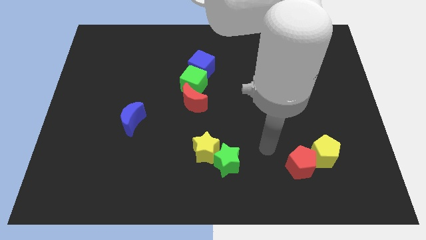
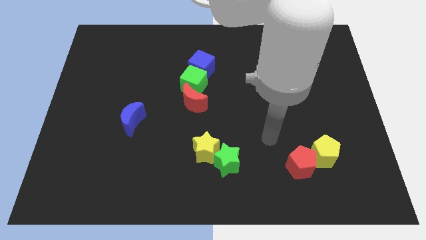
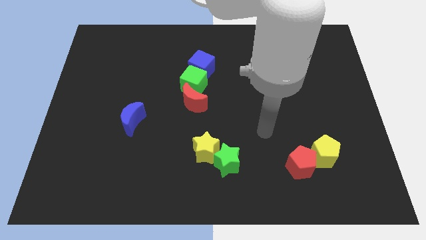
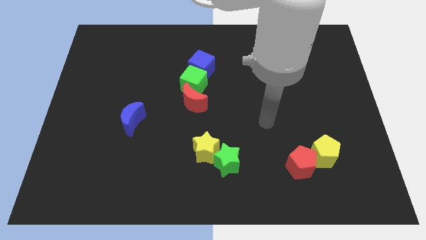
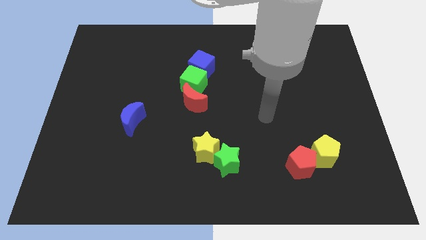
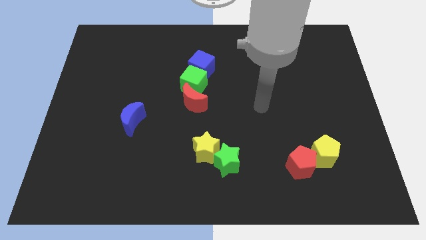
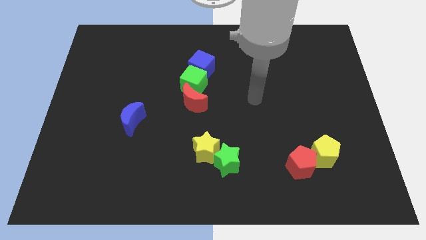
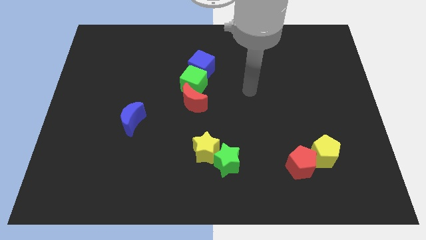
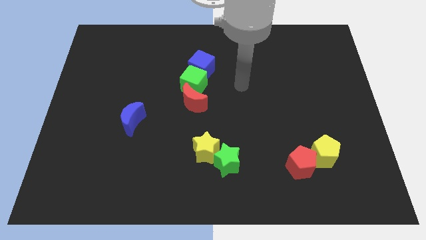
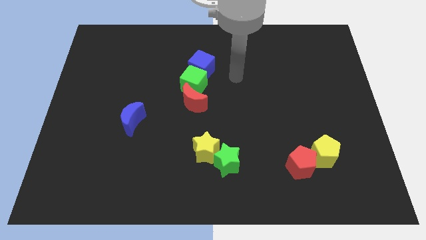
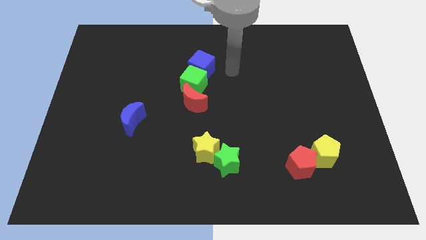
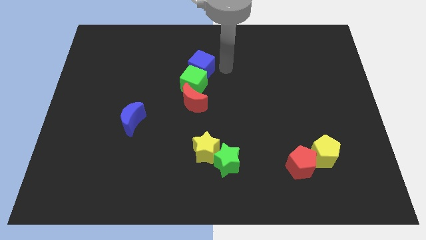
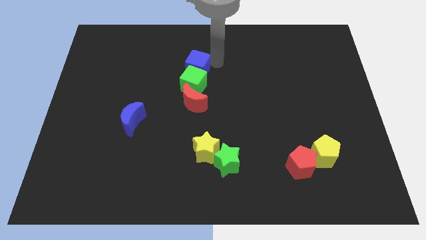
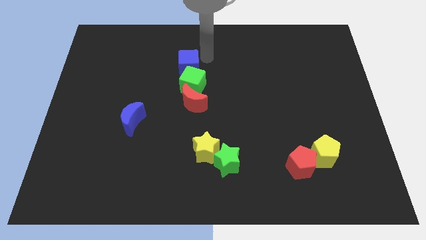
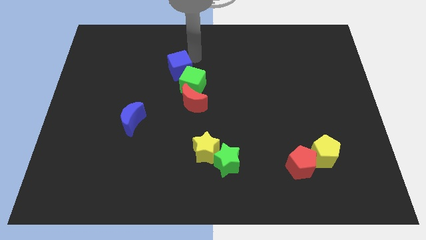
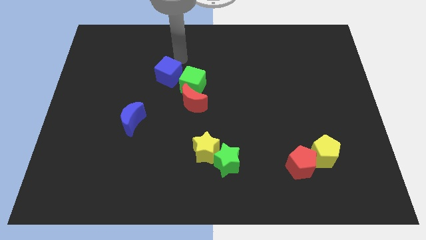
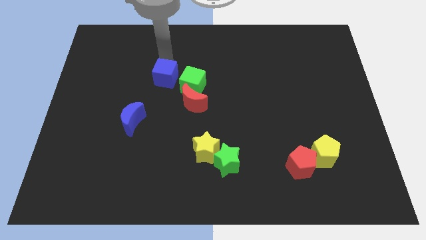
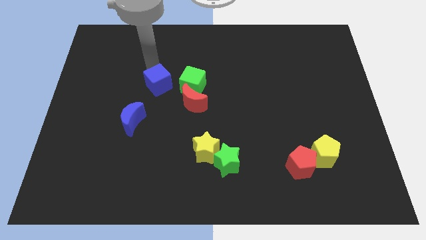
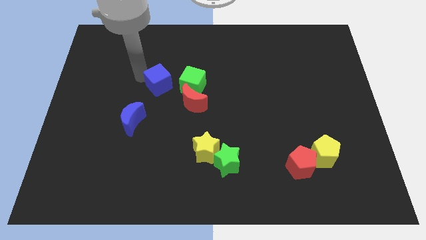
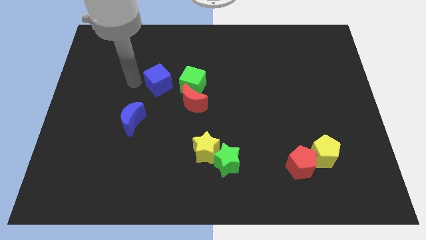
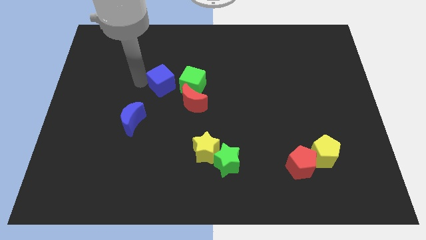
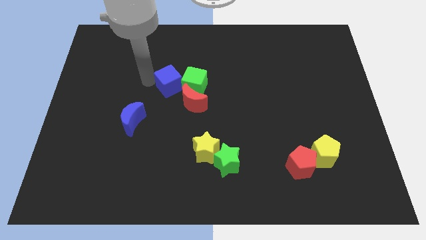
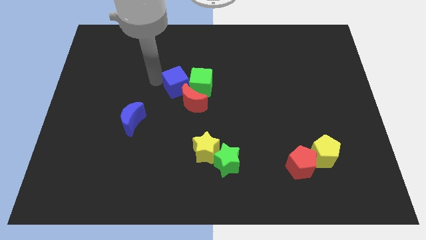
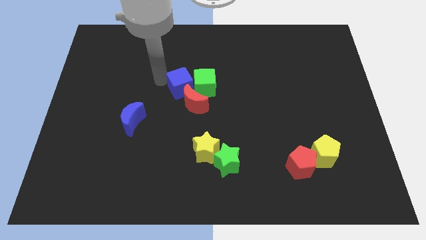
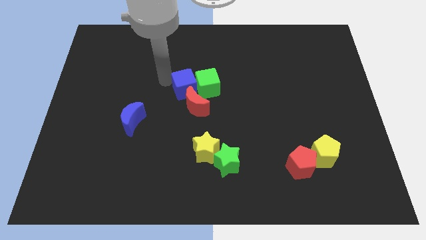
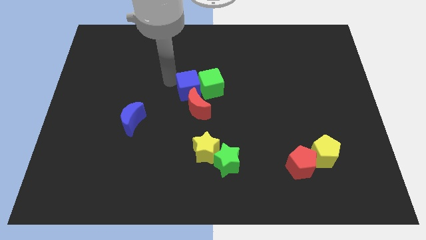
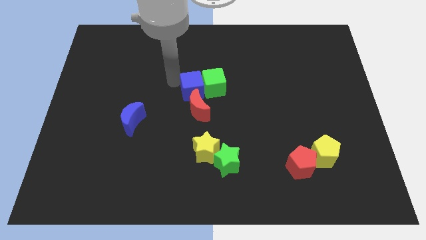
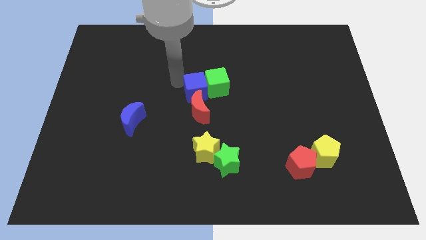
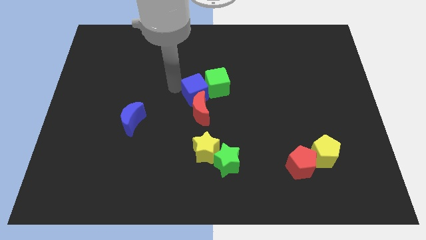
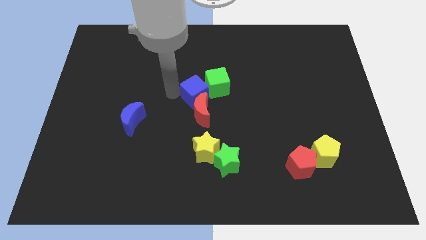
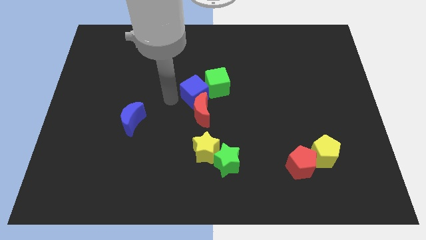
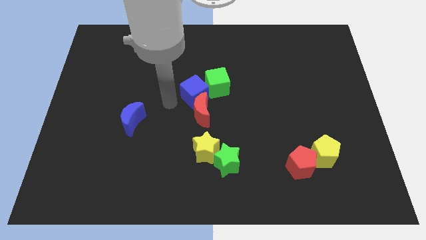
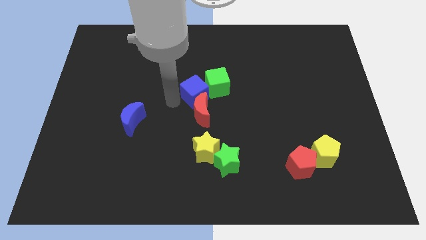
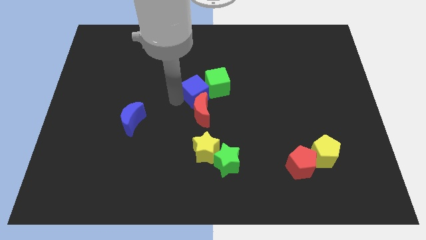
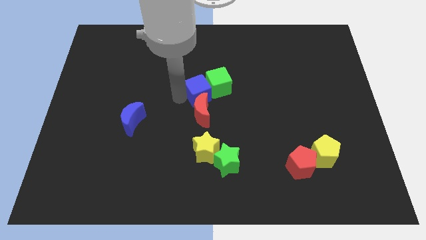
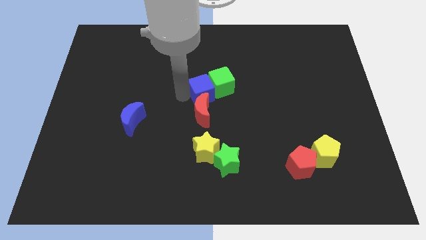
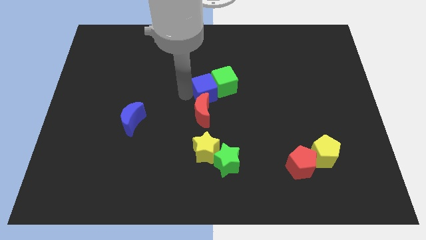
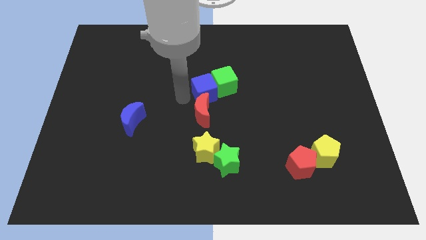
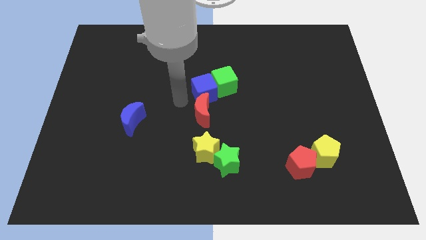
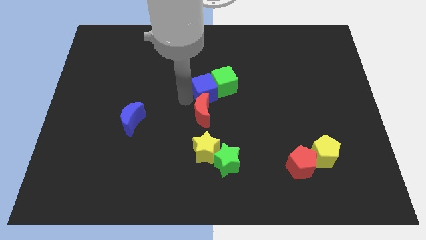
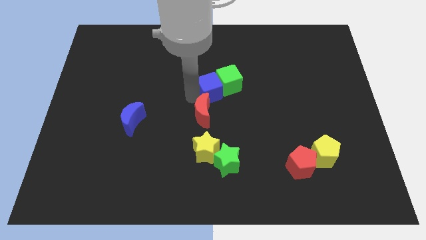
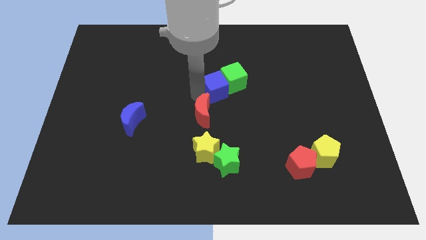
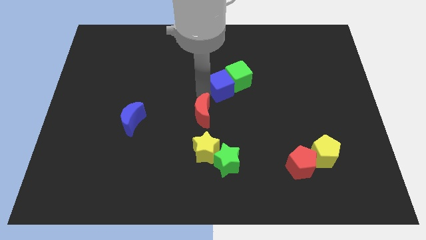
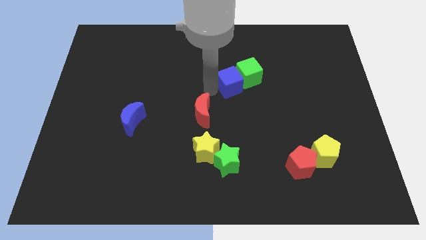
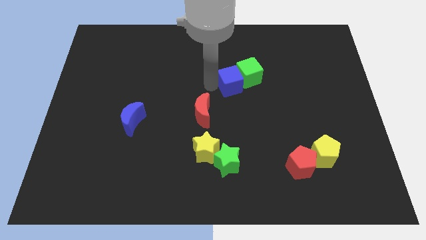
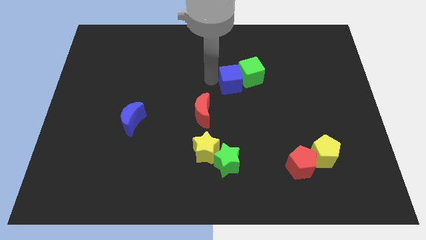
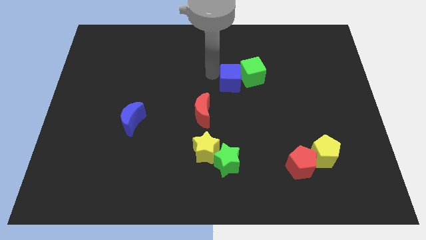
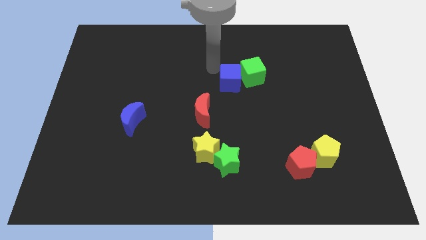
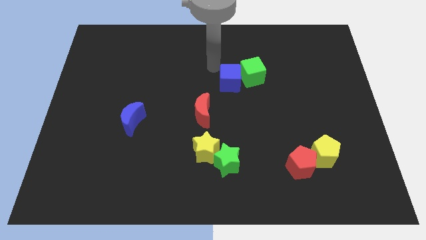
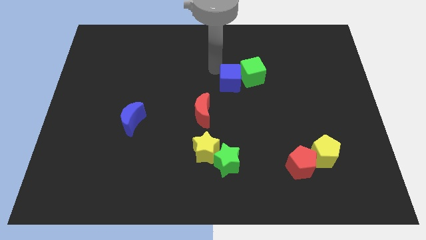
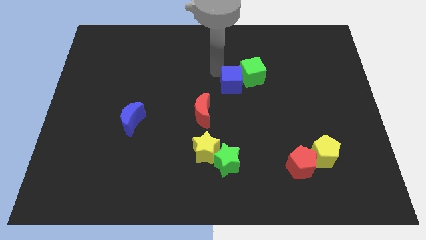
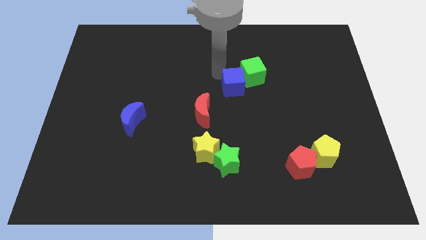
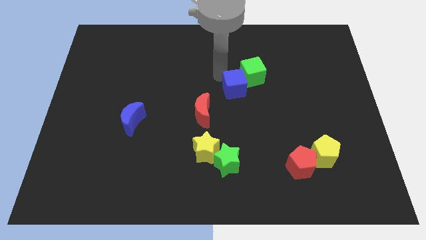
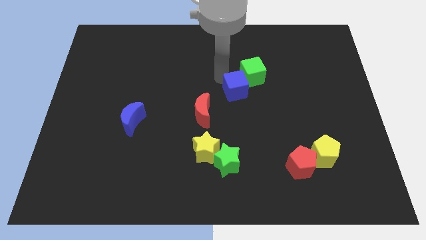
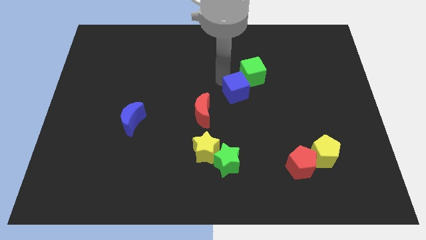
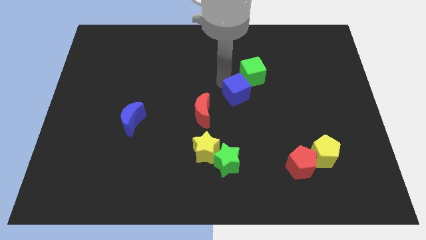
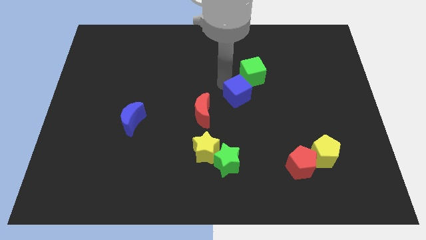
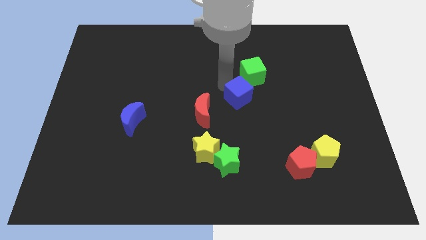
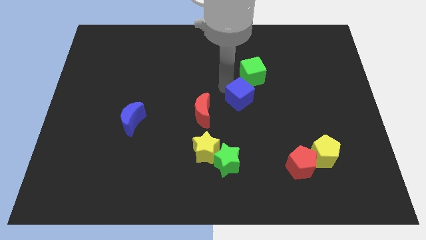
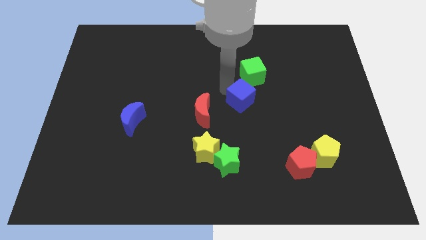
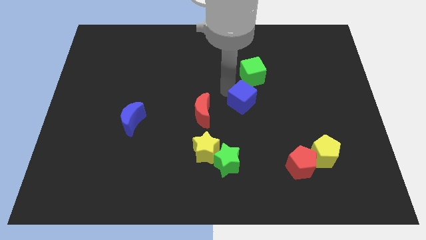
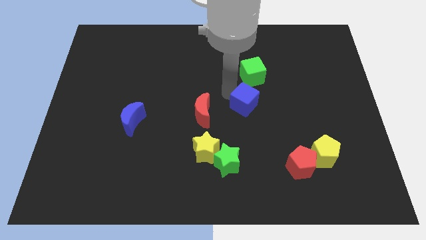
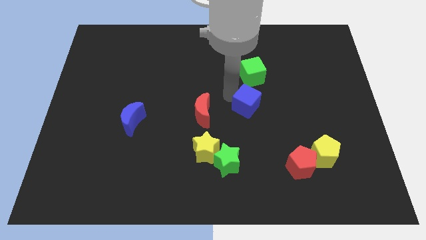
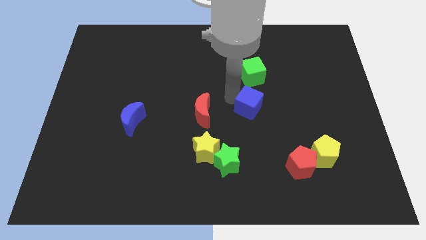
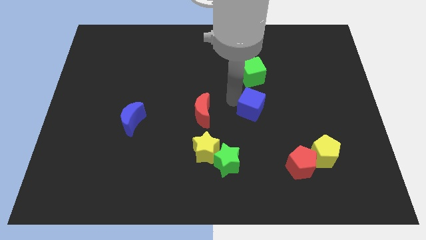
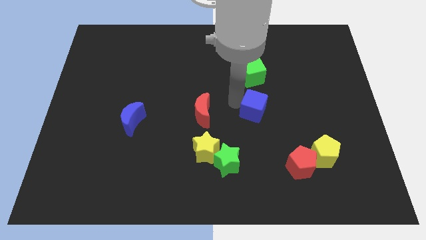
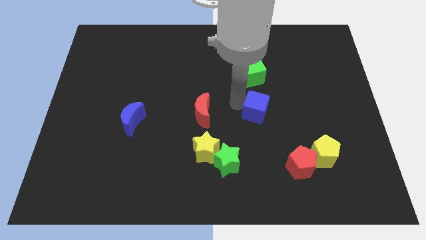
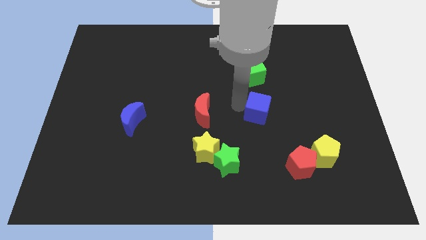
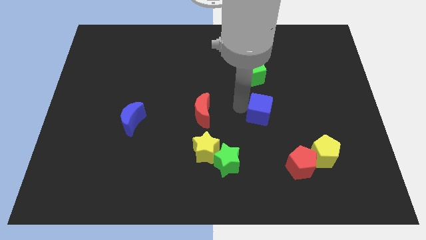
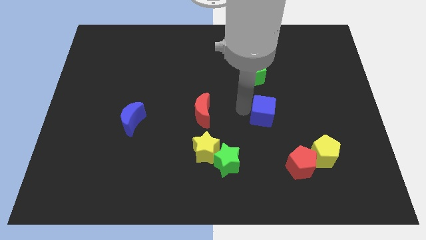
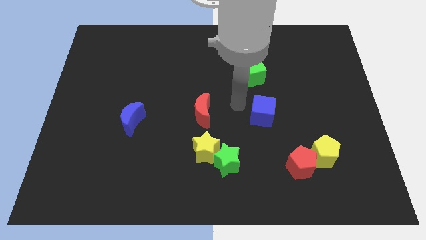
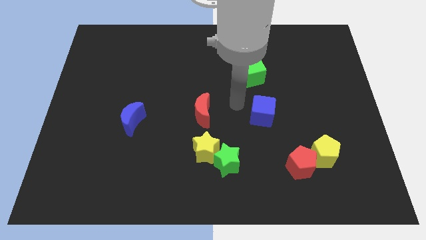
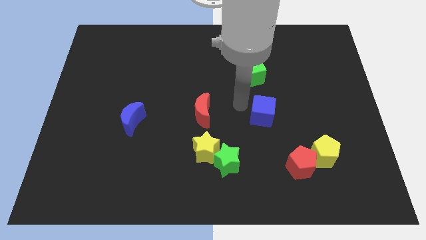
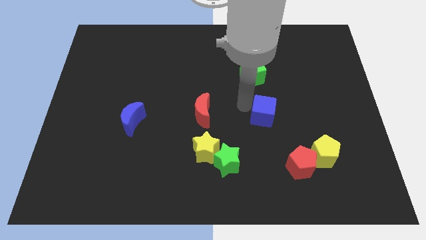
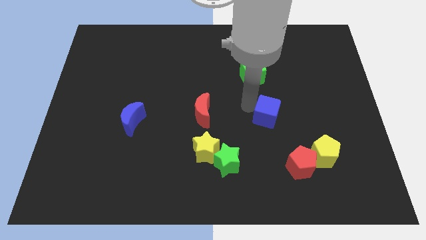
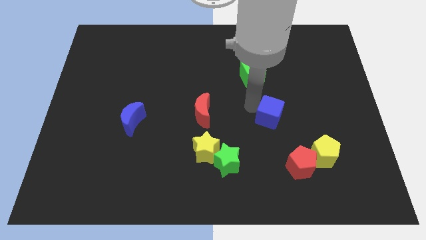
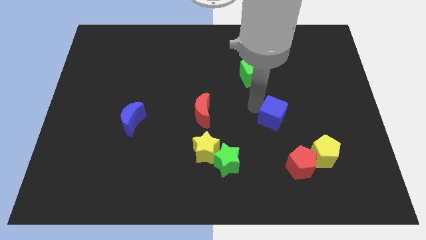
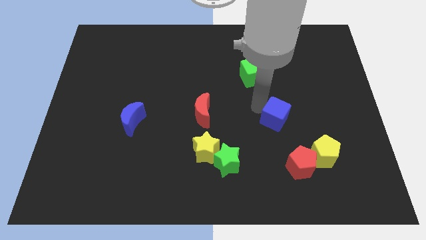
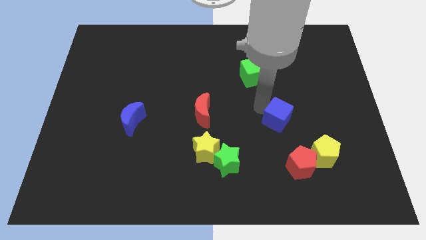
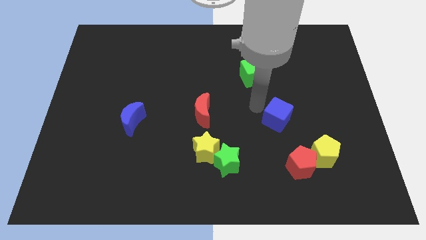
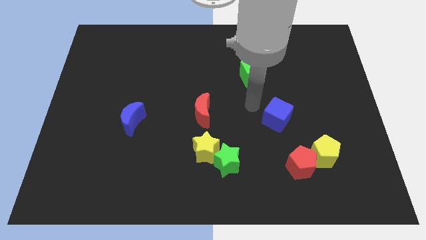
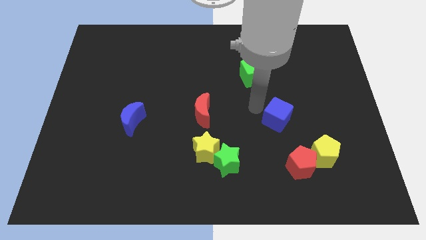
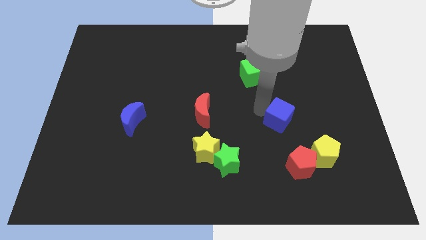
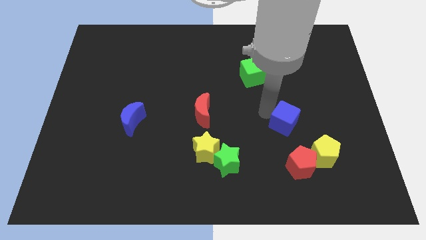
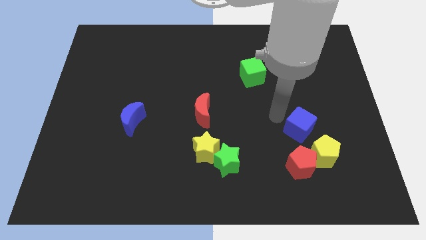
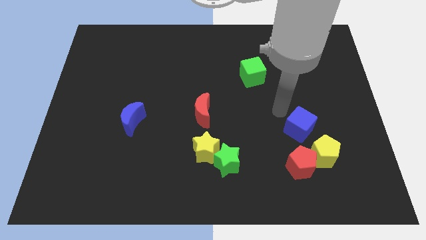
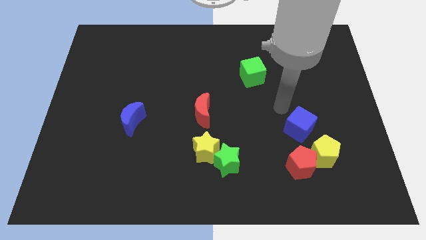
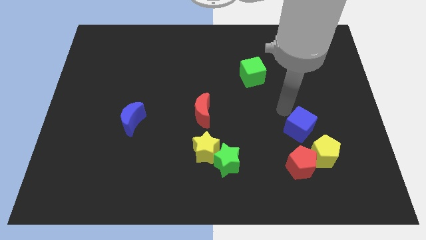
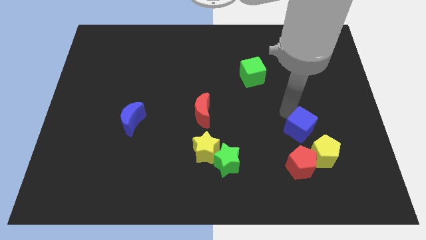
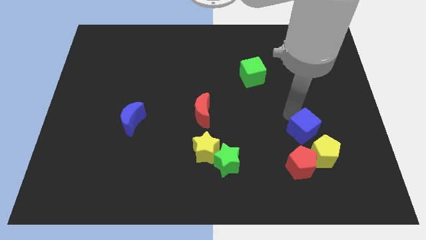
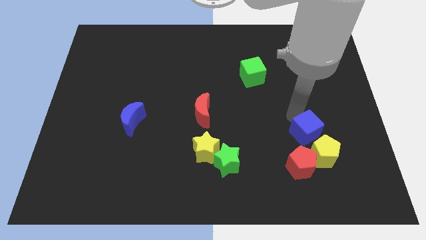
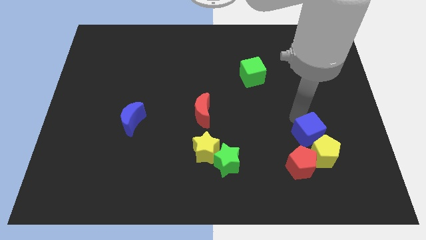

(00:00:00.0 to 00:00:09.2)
slide the blue cube towards the yellow pentagon
